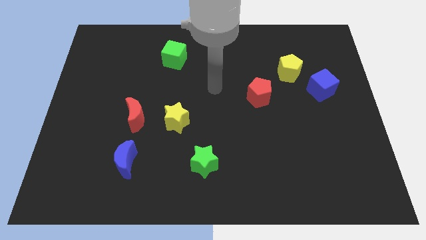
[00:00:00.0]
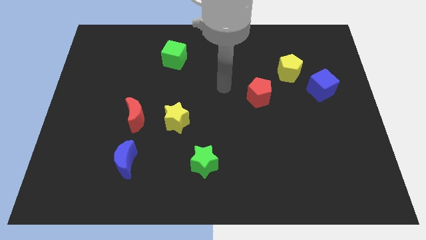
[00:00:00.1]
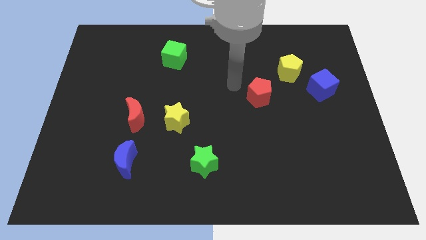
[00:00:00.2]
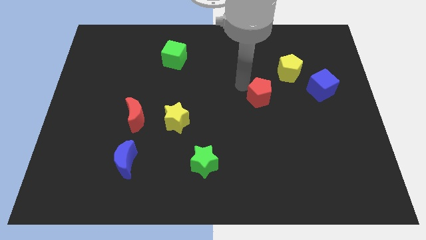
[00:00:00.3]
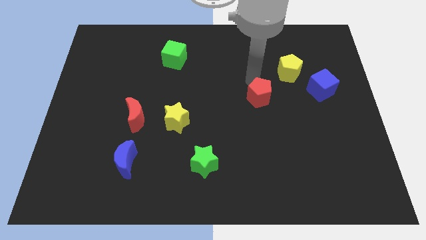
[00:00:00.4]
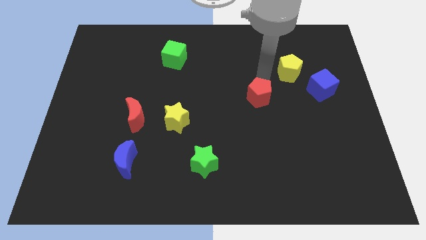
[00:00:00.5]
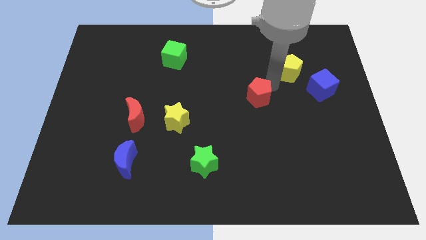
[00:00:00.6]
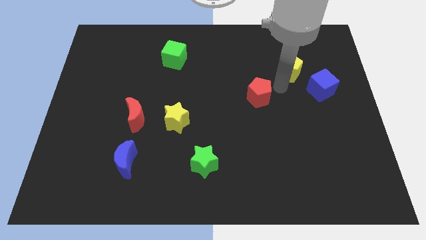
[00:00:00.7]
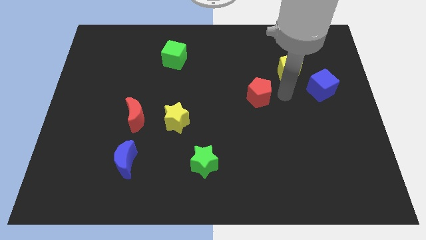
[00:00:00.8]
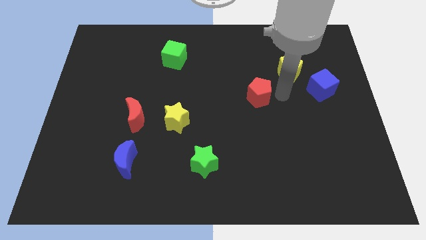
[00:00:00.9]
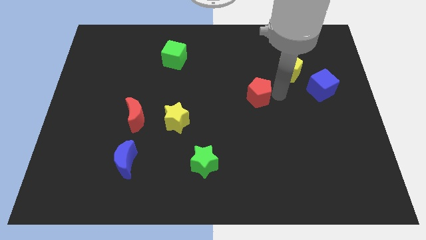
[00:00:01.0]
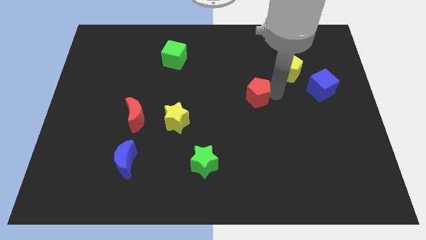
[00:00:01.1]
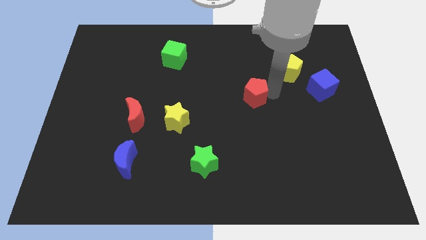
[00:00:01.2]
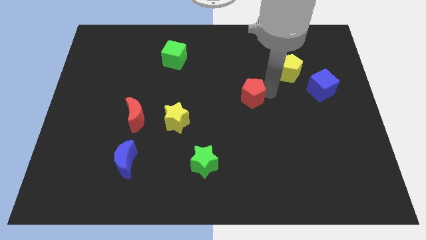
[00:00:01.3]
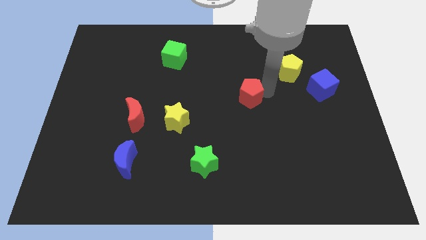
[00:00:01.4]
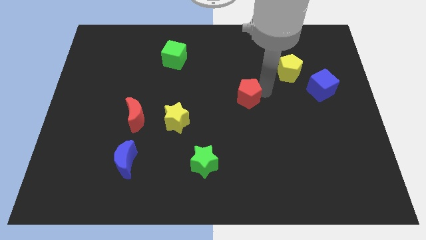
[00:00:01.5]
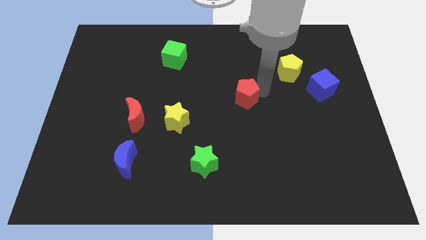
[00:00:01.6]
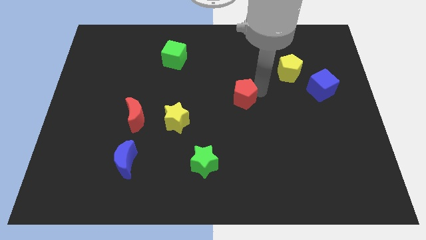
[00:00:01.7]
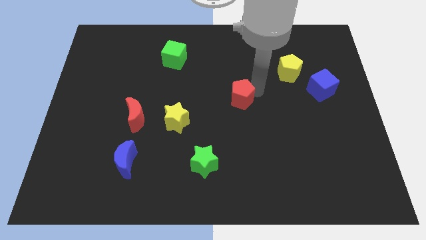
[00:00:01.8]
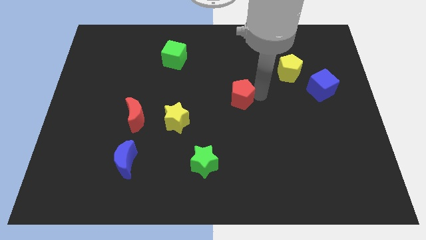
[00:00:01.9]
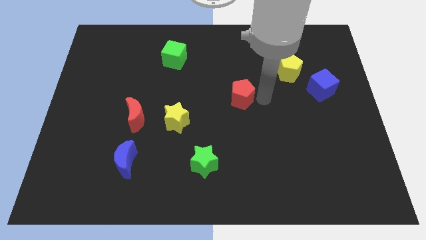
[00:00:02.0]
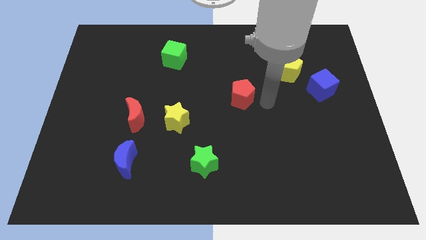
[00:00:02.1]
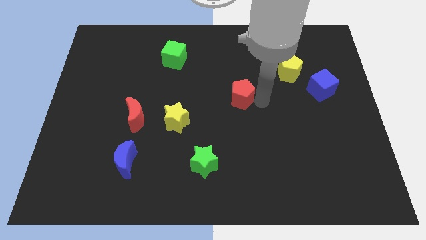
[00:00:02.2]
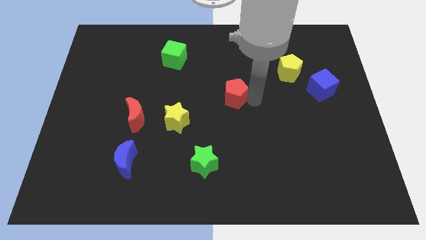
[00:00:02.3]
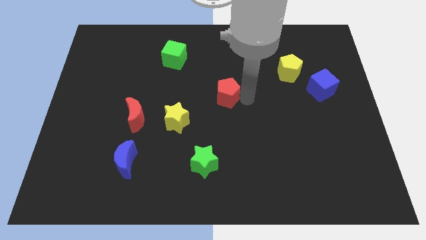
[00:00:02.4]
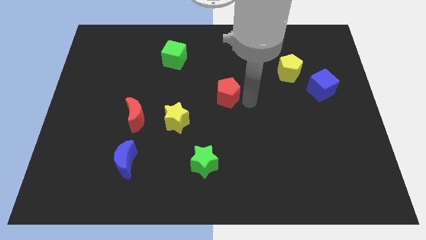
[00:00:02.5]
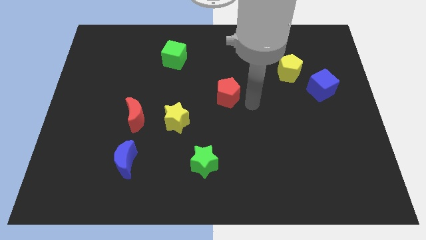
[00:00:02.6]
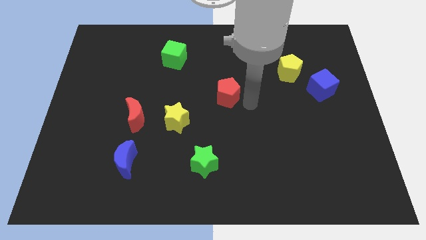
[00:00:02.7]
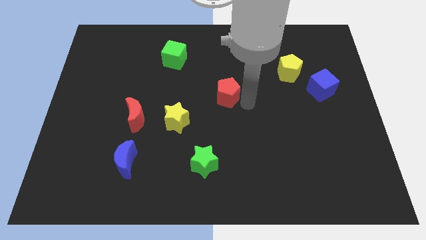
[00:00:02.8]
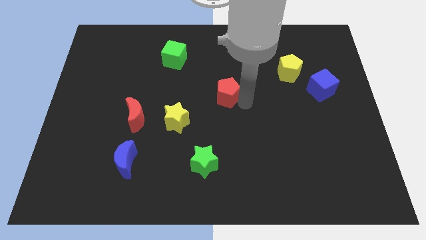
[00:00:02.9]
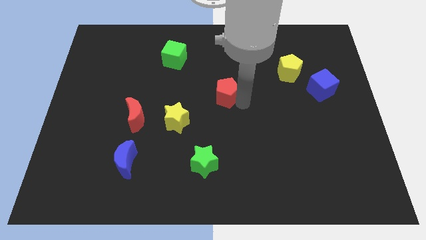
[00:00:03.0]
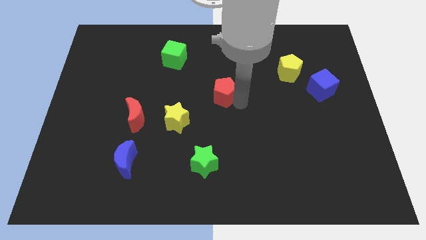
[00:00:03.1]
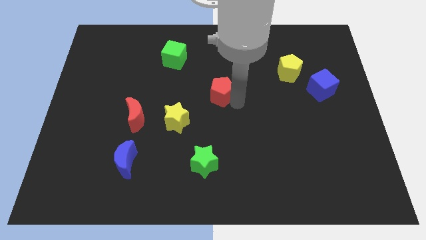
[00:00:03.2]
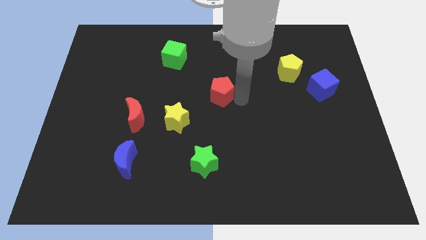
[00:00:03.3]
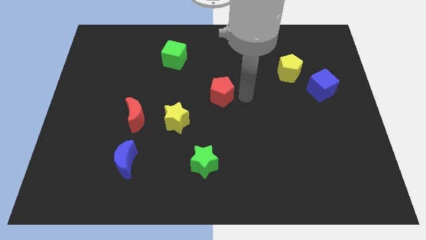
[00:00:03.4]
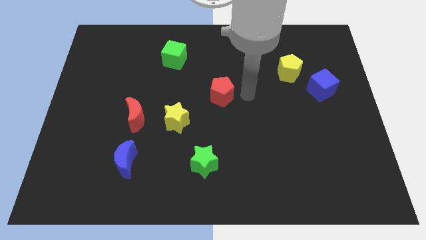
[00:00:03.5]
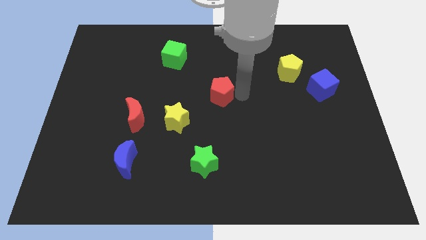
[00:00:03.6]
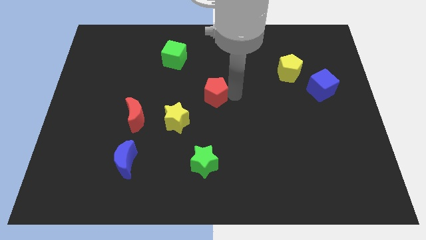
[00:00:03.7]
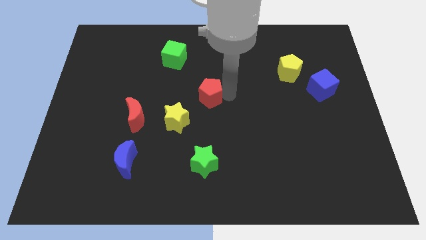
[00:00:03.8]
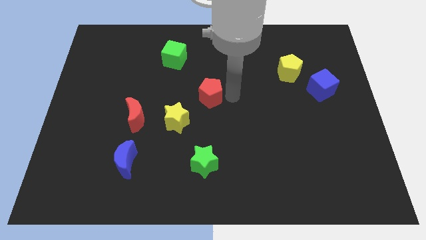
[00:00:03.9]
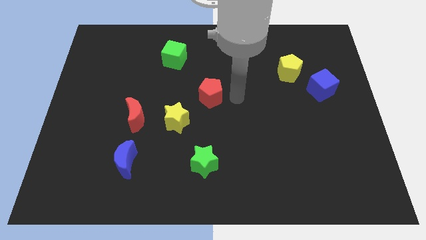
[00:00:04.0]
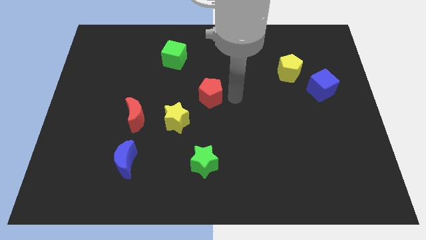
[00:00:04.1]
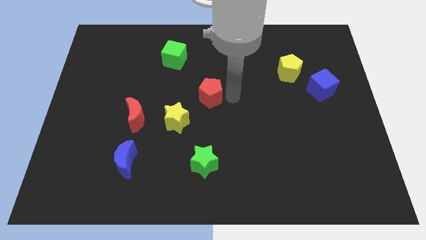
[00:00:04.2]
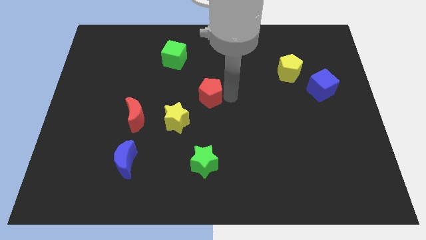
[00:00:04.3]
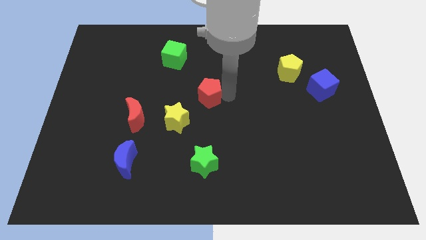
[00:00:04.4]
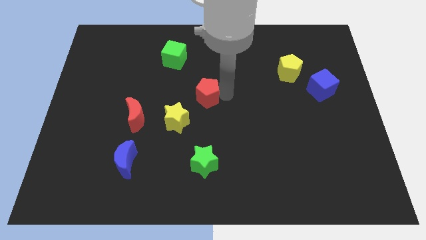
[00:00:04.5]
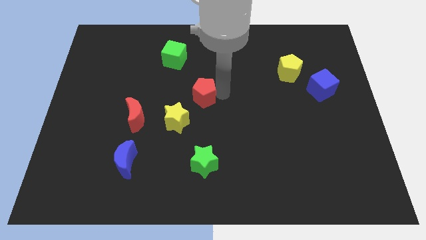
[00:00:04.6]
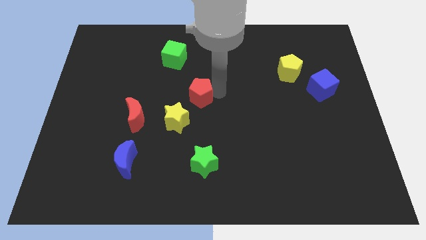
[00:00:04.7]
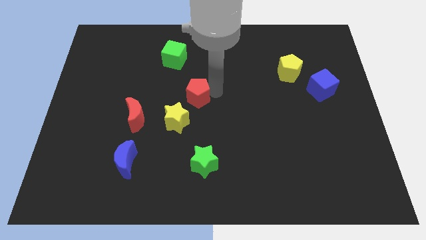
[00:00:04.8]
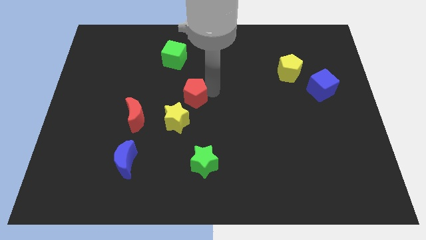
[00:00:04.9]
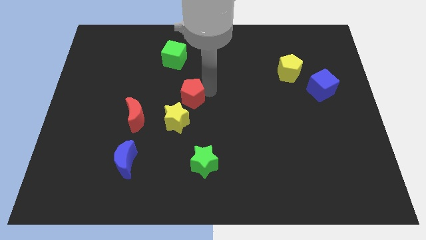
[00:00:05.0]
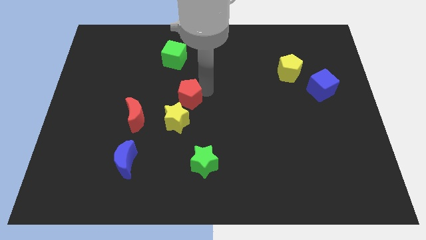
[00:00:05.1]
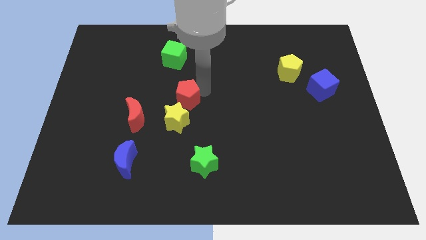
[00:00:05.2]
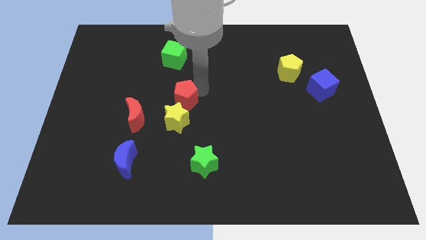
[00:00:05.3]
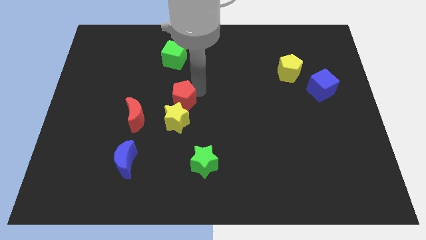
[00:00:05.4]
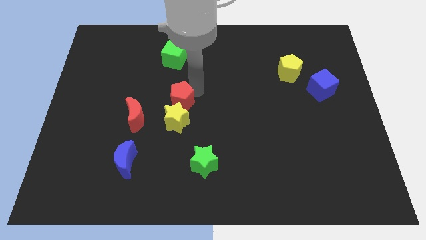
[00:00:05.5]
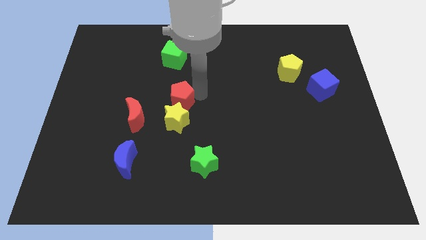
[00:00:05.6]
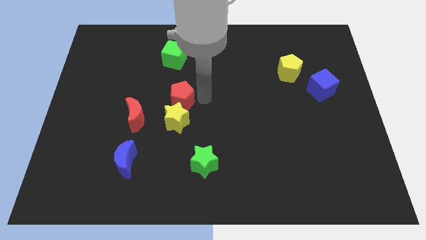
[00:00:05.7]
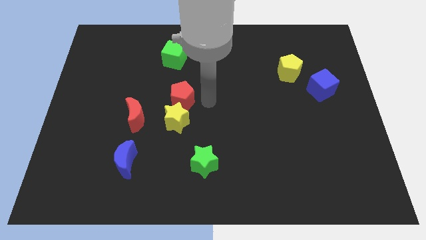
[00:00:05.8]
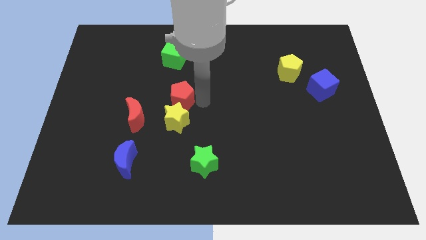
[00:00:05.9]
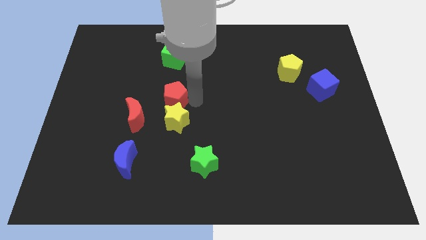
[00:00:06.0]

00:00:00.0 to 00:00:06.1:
move the red pentagon to the left

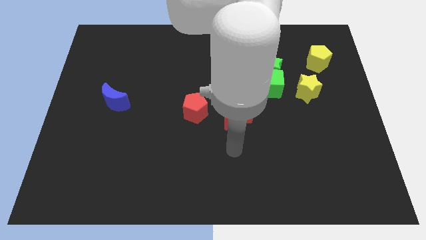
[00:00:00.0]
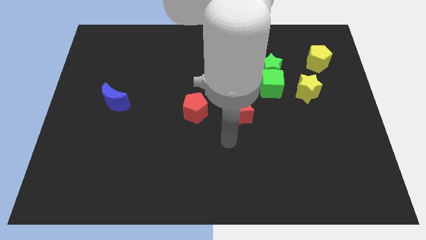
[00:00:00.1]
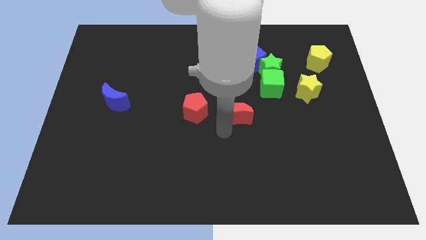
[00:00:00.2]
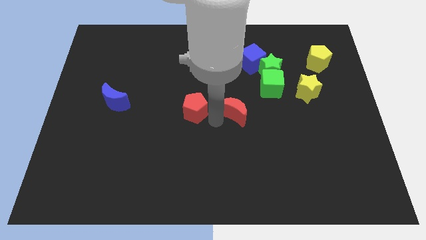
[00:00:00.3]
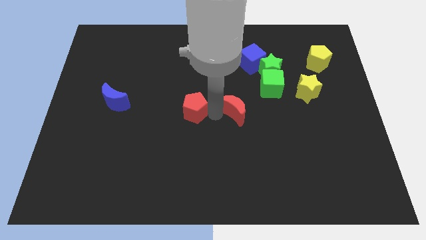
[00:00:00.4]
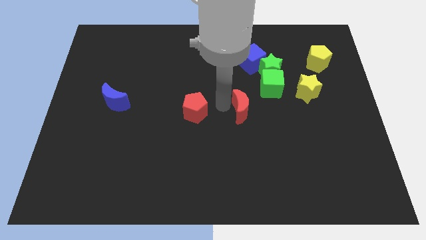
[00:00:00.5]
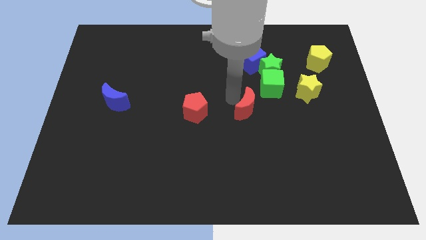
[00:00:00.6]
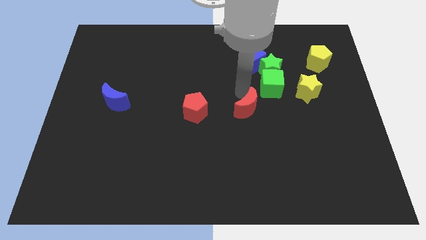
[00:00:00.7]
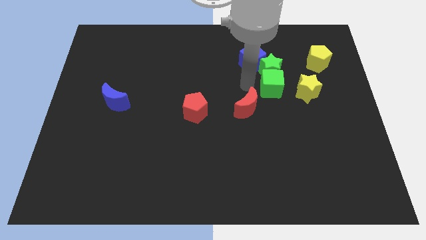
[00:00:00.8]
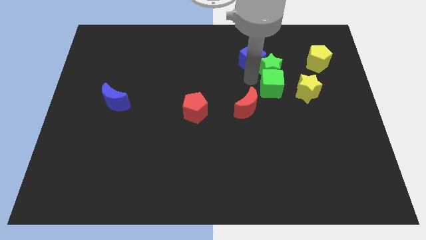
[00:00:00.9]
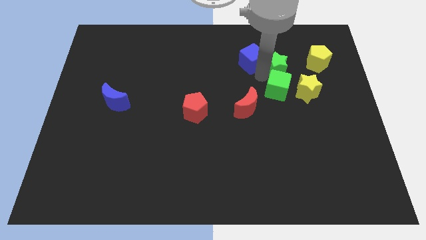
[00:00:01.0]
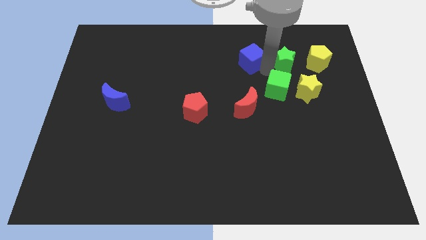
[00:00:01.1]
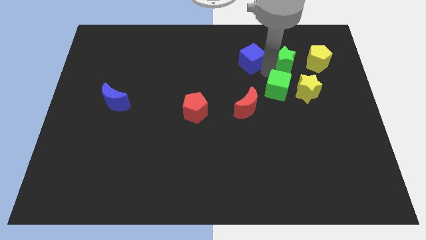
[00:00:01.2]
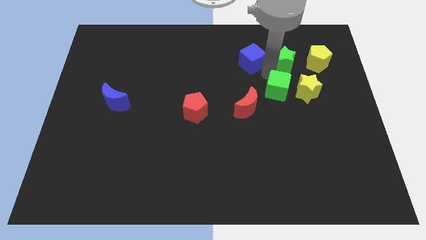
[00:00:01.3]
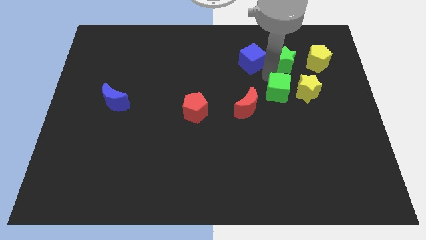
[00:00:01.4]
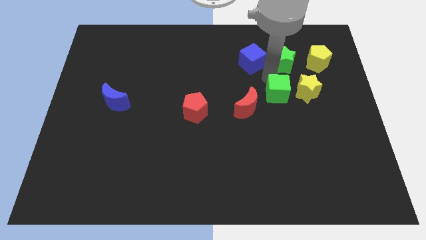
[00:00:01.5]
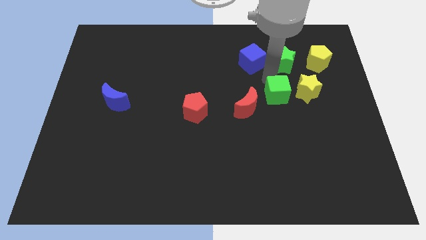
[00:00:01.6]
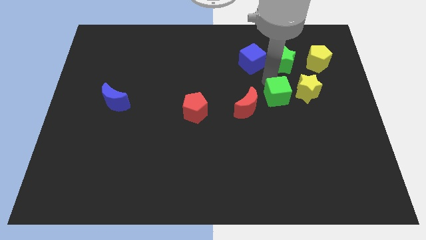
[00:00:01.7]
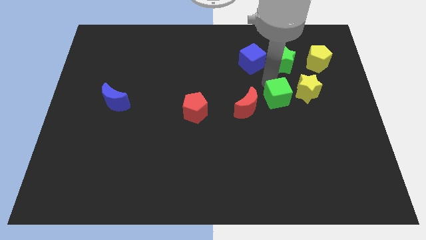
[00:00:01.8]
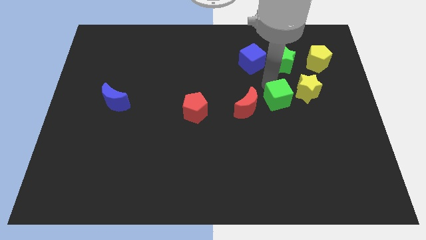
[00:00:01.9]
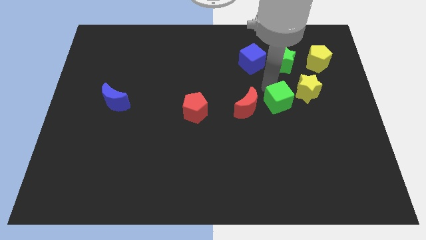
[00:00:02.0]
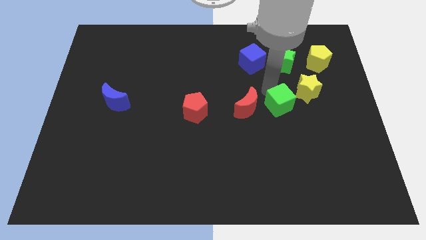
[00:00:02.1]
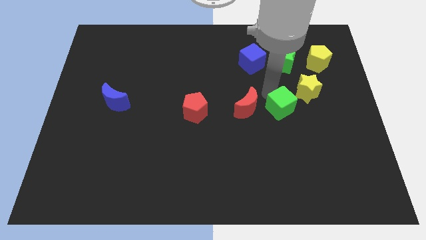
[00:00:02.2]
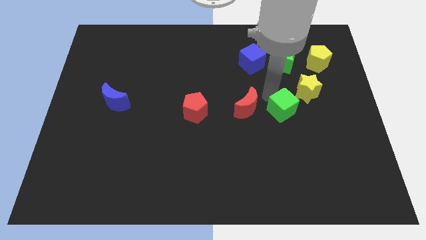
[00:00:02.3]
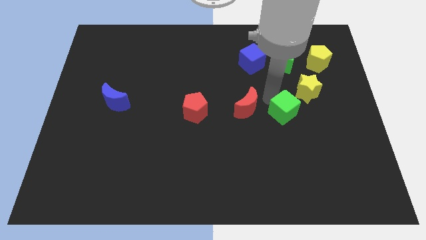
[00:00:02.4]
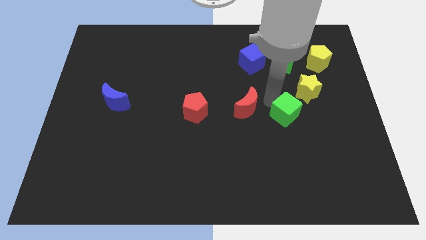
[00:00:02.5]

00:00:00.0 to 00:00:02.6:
slide the green cube somewhat diagonally down and right
